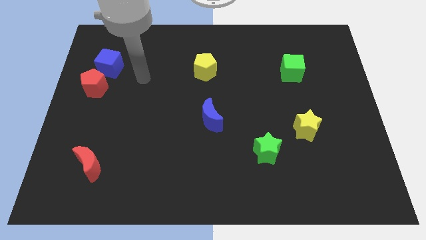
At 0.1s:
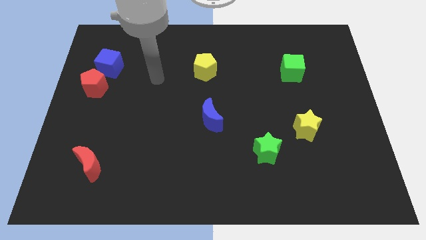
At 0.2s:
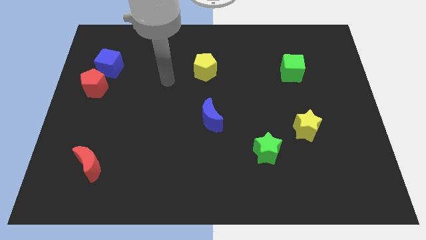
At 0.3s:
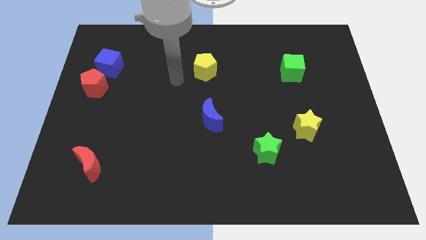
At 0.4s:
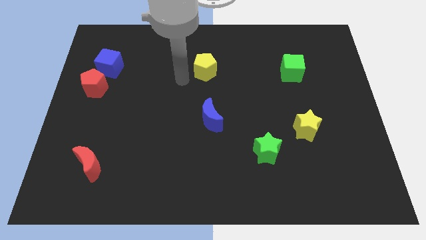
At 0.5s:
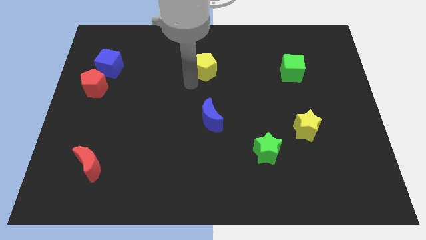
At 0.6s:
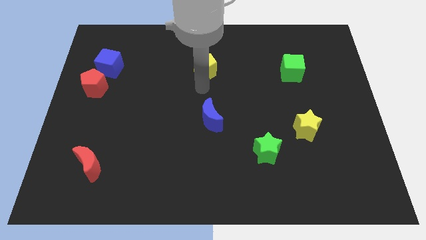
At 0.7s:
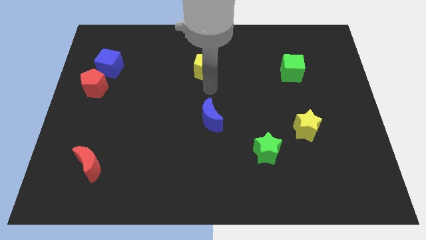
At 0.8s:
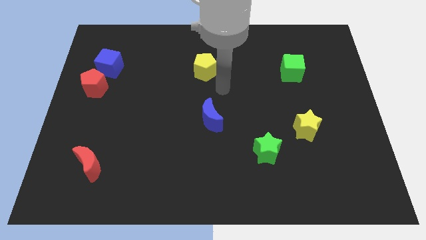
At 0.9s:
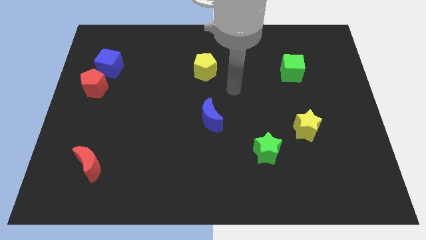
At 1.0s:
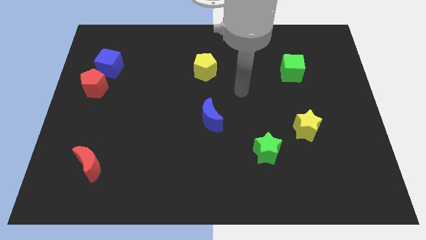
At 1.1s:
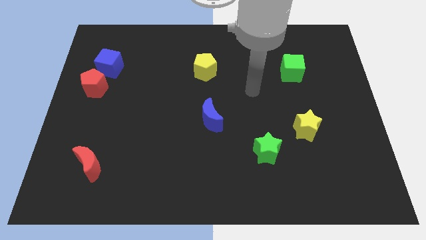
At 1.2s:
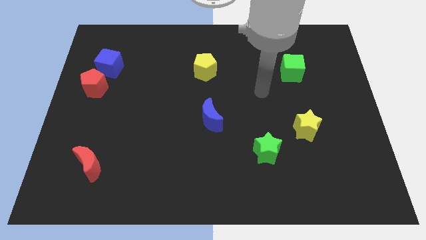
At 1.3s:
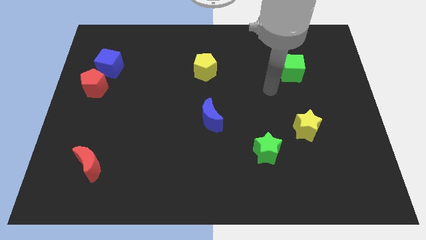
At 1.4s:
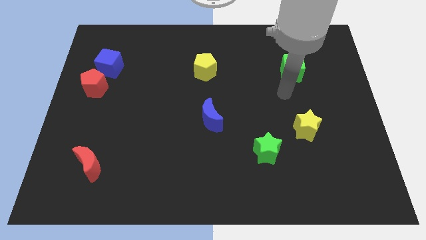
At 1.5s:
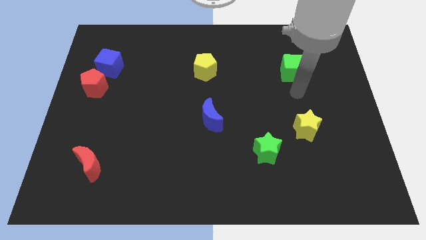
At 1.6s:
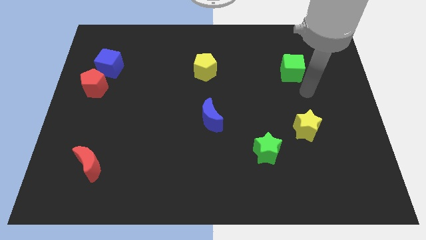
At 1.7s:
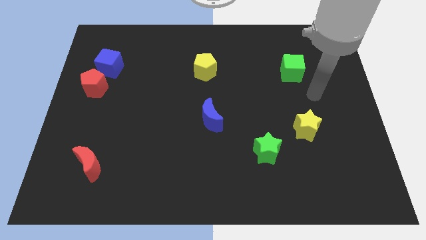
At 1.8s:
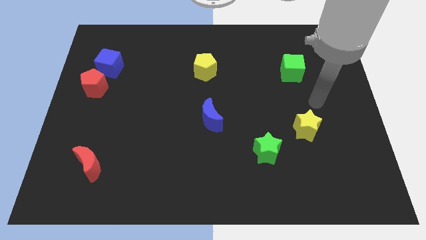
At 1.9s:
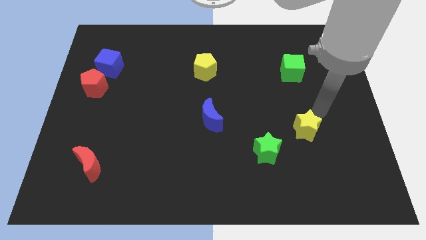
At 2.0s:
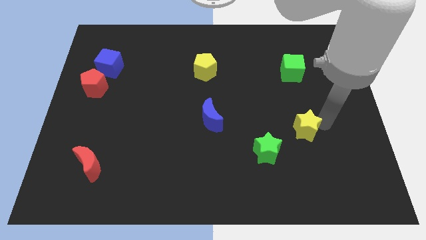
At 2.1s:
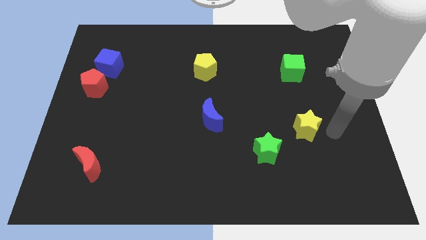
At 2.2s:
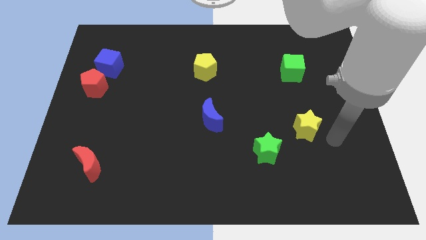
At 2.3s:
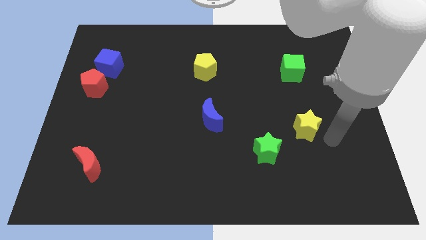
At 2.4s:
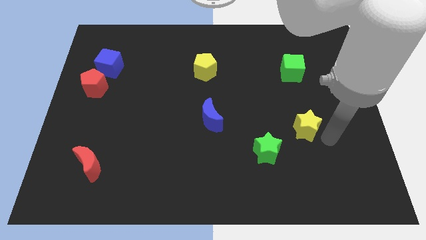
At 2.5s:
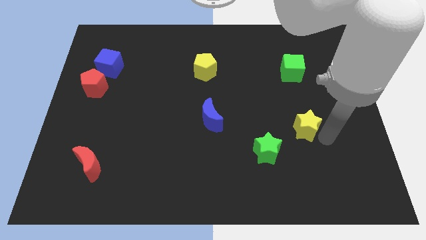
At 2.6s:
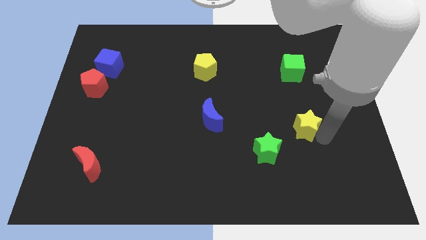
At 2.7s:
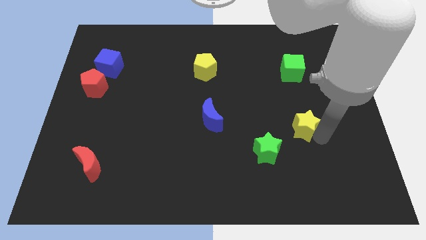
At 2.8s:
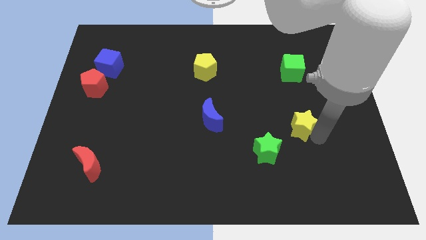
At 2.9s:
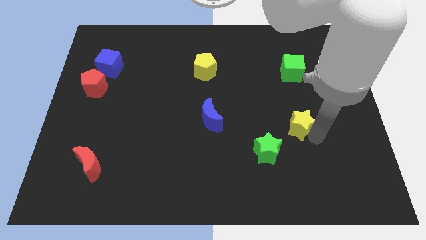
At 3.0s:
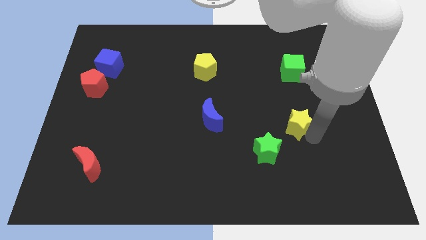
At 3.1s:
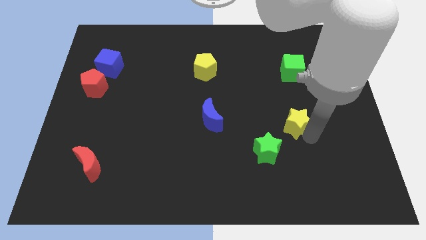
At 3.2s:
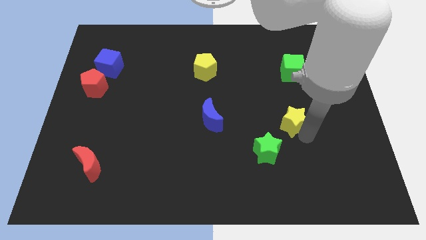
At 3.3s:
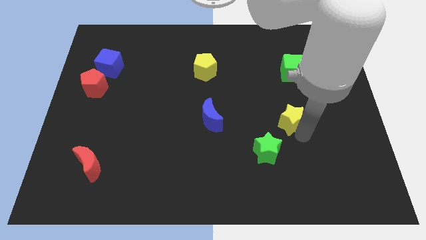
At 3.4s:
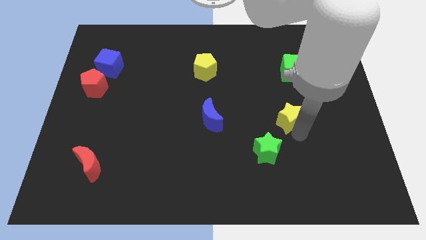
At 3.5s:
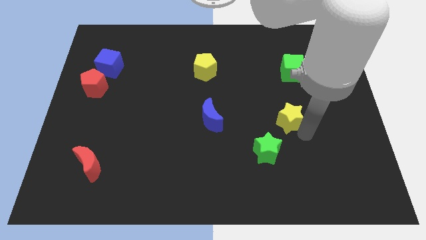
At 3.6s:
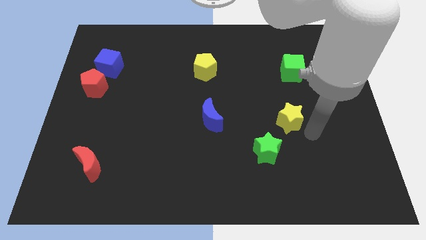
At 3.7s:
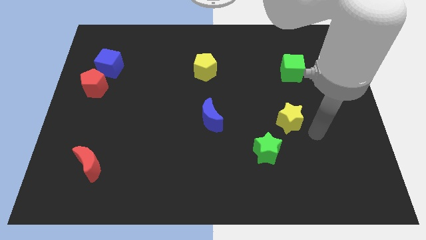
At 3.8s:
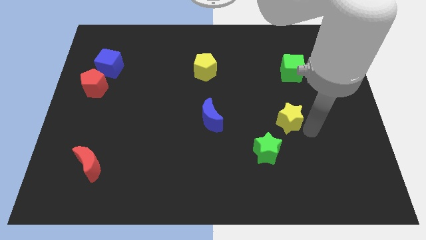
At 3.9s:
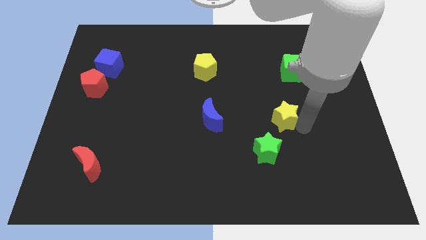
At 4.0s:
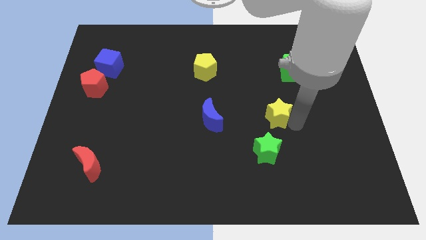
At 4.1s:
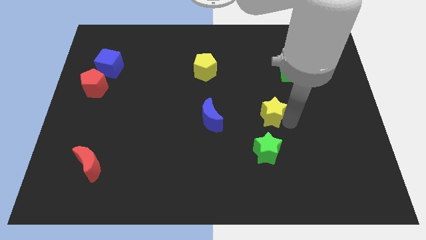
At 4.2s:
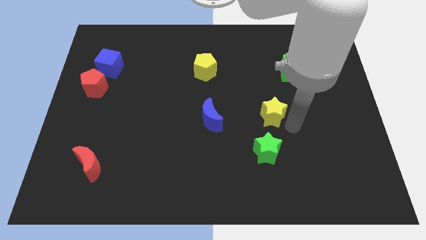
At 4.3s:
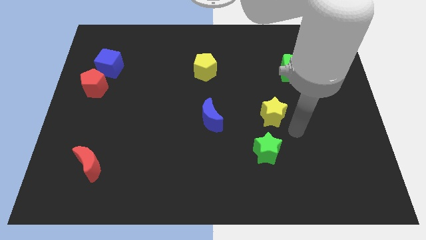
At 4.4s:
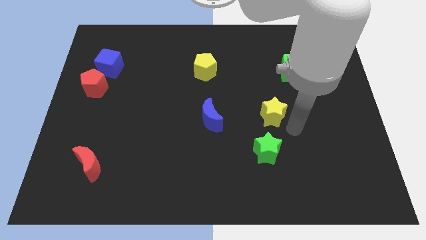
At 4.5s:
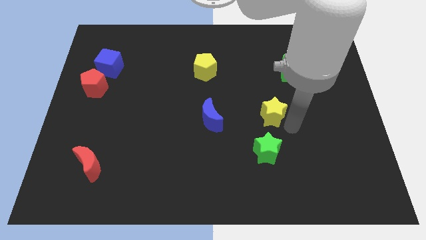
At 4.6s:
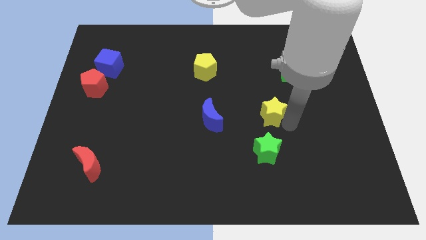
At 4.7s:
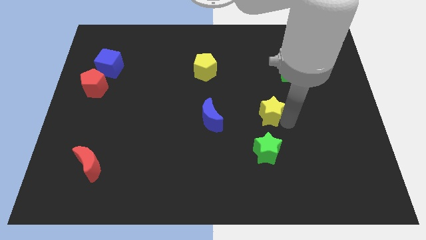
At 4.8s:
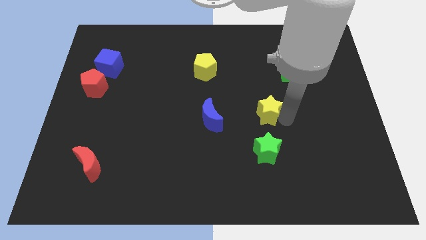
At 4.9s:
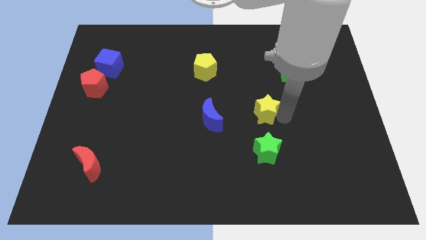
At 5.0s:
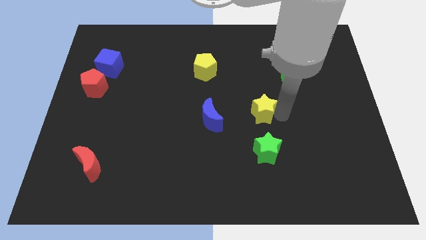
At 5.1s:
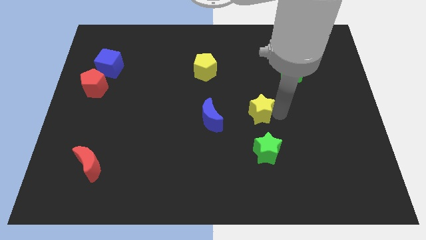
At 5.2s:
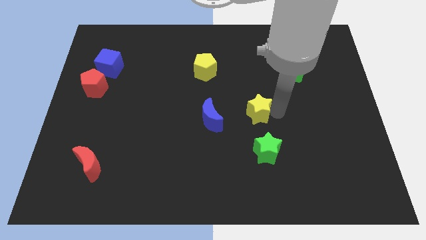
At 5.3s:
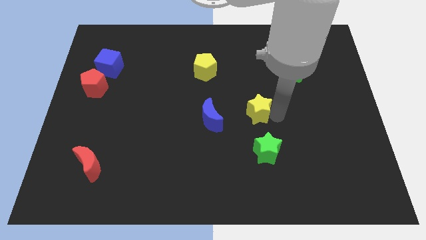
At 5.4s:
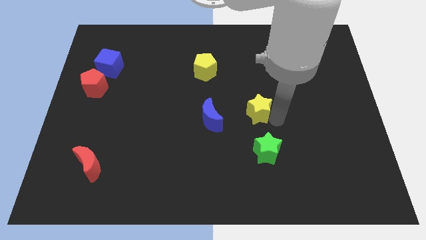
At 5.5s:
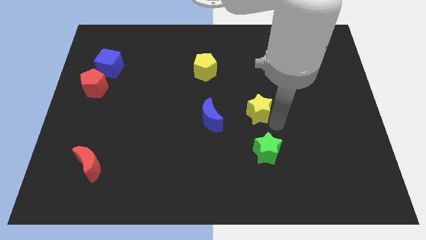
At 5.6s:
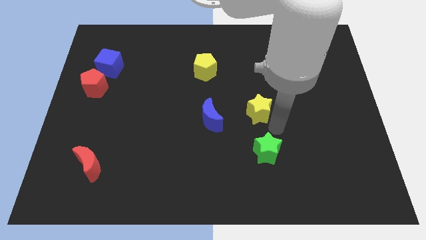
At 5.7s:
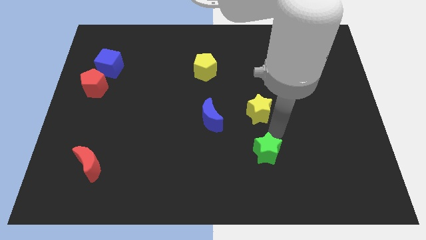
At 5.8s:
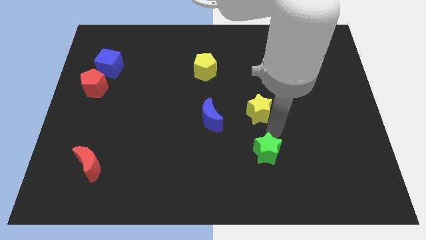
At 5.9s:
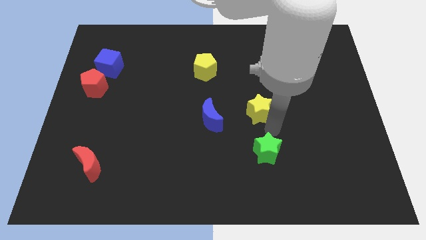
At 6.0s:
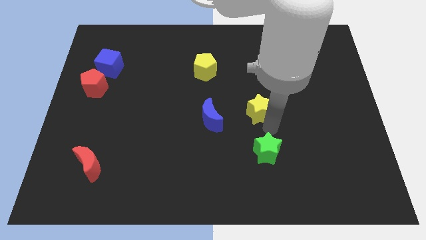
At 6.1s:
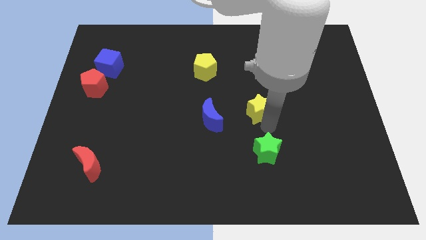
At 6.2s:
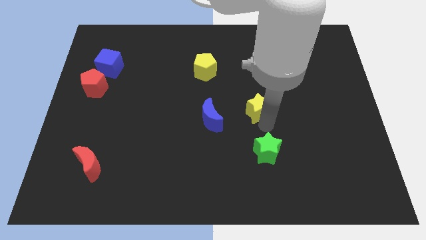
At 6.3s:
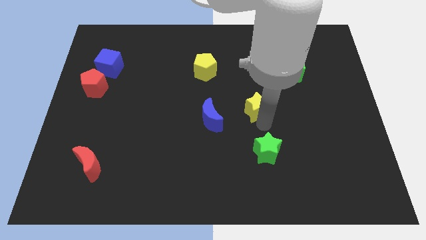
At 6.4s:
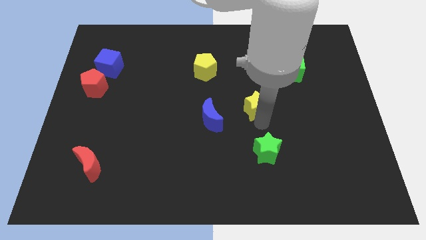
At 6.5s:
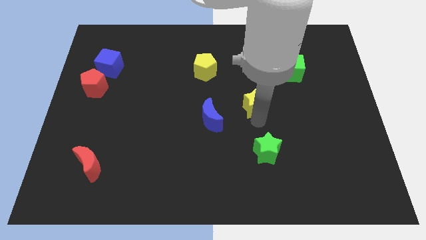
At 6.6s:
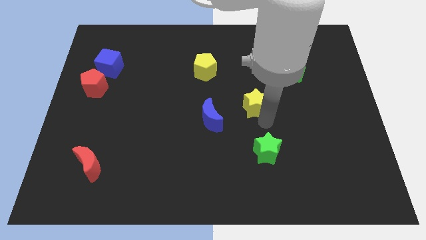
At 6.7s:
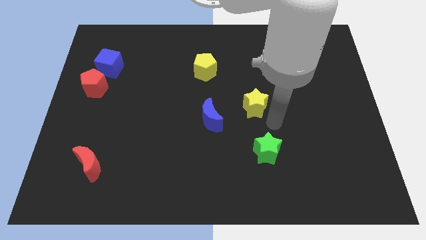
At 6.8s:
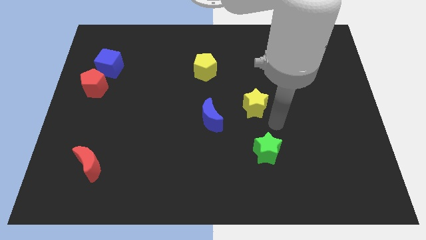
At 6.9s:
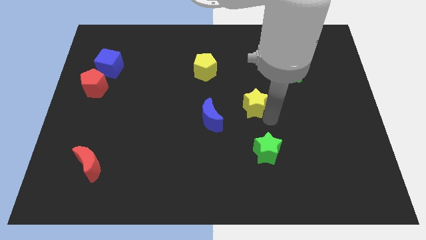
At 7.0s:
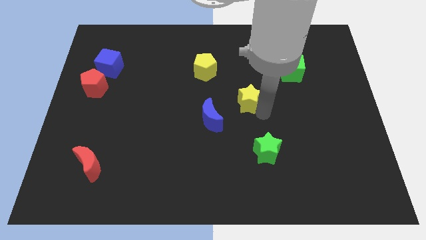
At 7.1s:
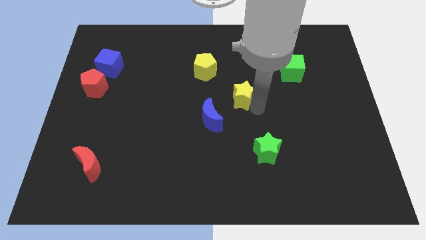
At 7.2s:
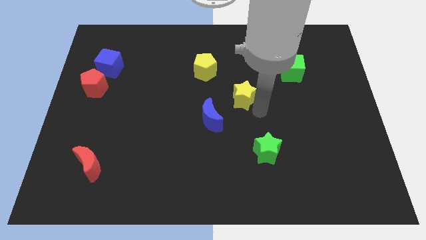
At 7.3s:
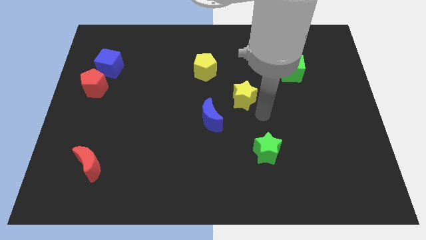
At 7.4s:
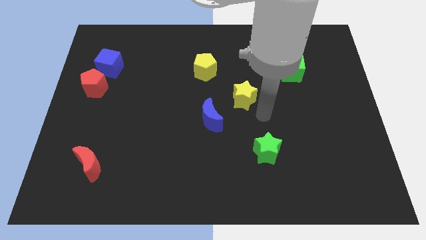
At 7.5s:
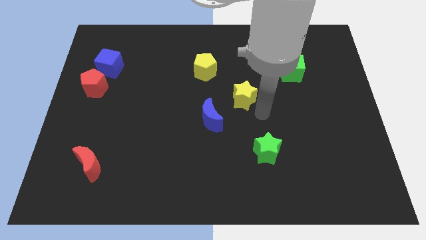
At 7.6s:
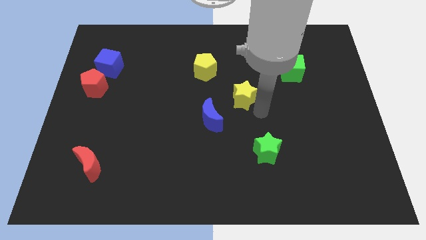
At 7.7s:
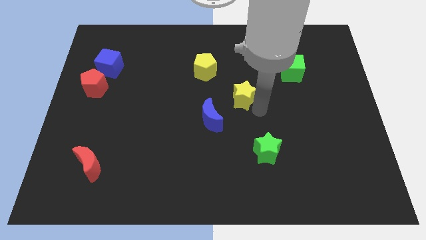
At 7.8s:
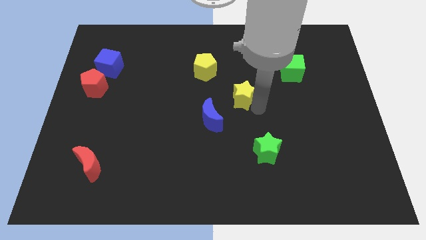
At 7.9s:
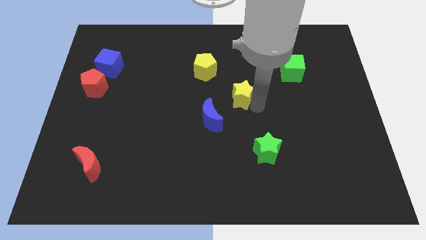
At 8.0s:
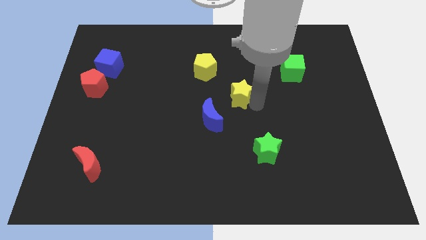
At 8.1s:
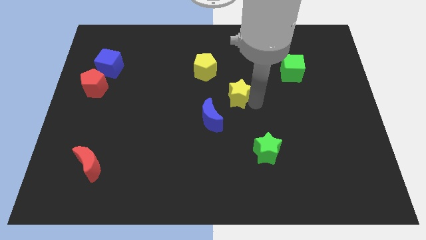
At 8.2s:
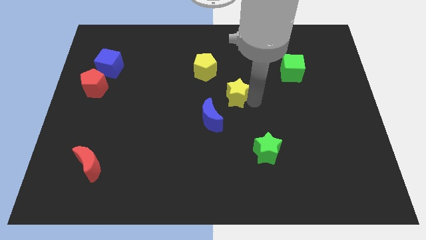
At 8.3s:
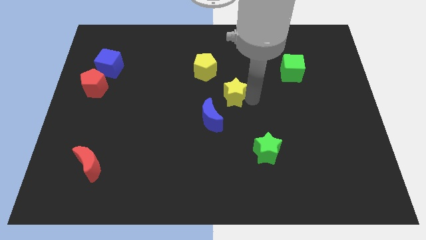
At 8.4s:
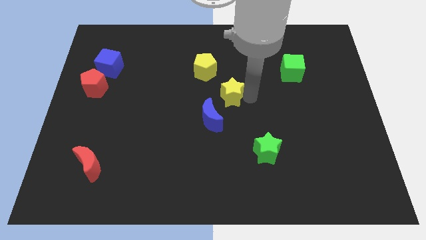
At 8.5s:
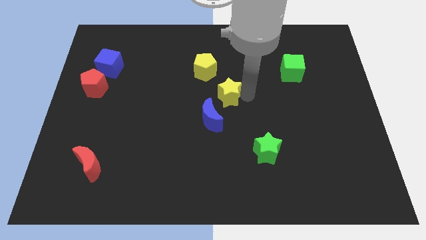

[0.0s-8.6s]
slide the yellow star to the top side of the blue moon
